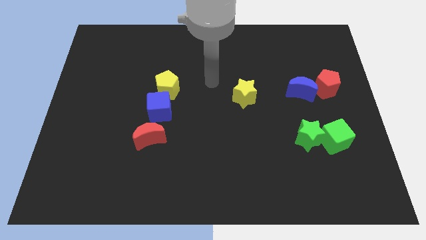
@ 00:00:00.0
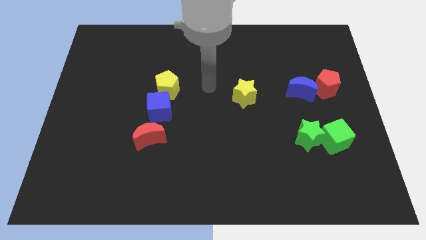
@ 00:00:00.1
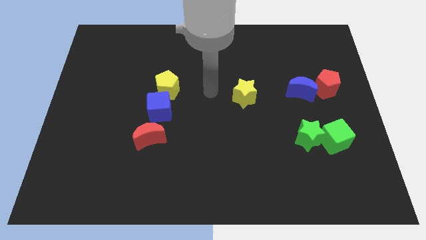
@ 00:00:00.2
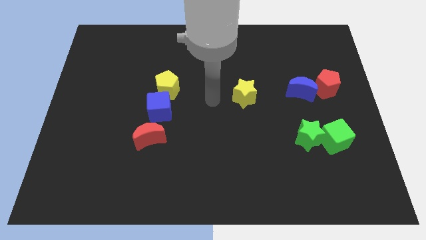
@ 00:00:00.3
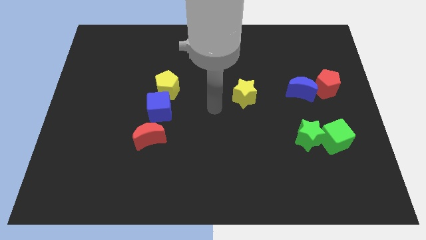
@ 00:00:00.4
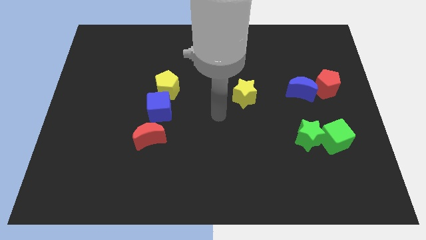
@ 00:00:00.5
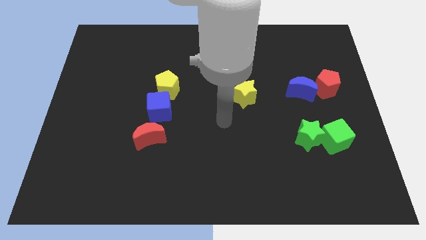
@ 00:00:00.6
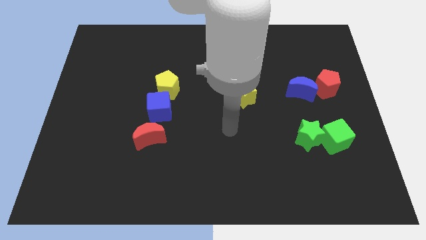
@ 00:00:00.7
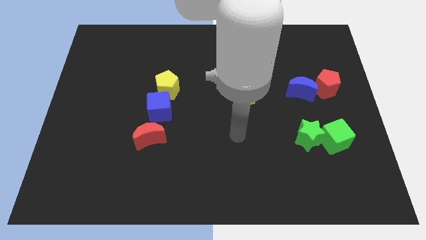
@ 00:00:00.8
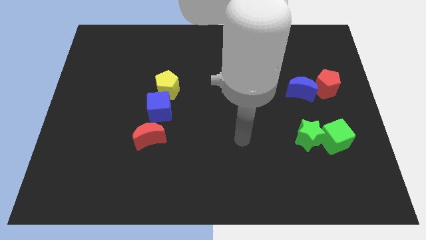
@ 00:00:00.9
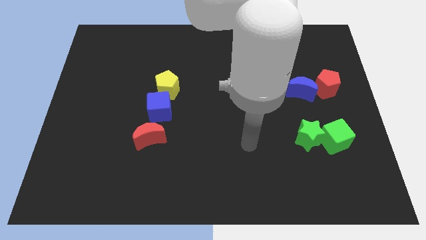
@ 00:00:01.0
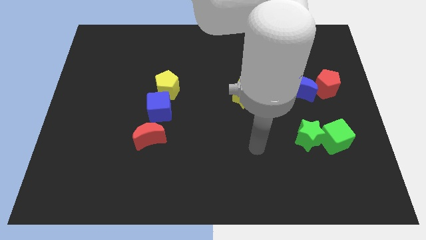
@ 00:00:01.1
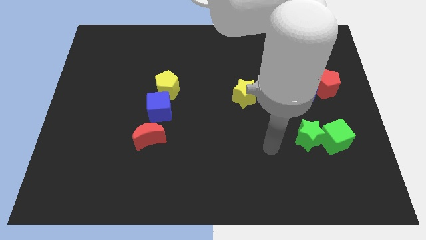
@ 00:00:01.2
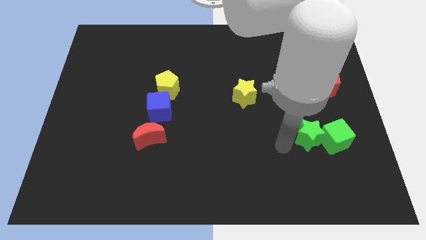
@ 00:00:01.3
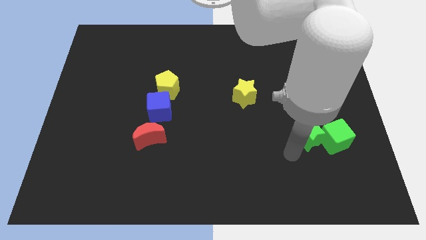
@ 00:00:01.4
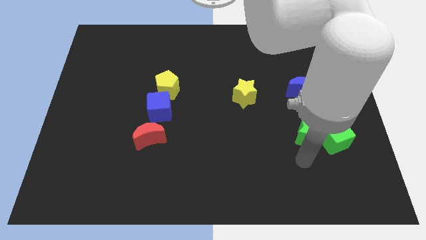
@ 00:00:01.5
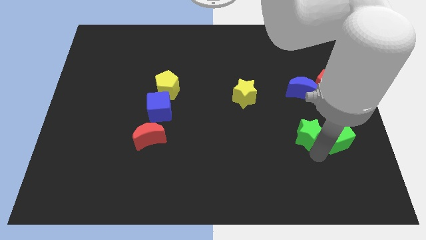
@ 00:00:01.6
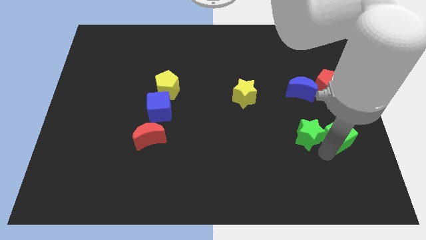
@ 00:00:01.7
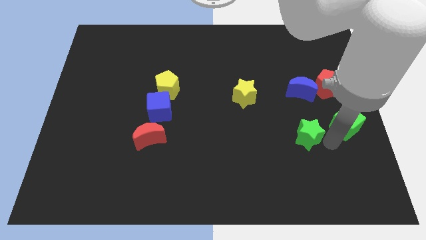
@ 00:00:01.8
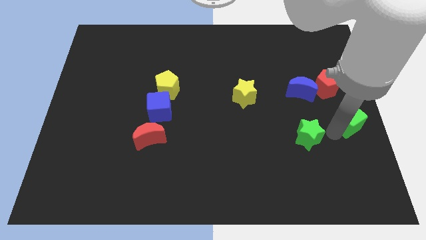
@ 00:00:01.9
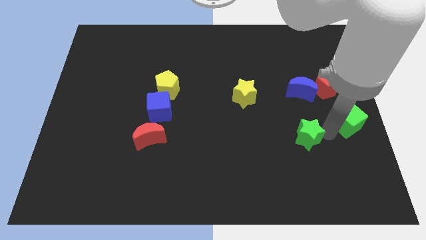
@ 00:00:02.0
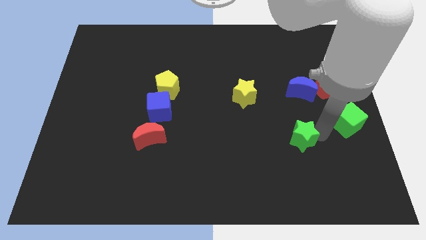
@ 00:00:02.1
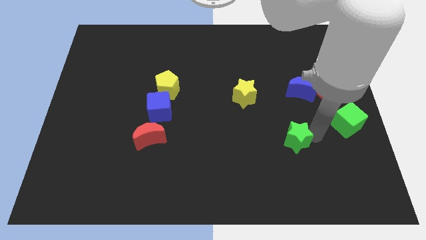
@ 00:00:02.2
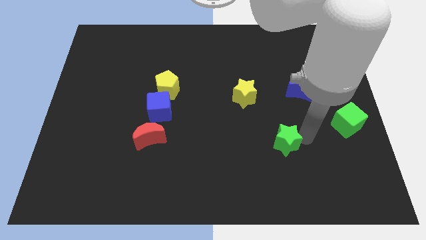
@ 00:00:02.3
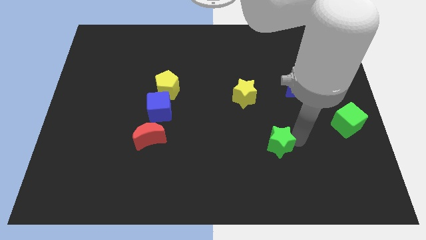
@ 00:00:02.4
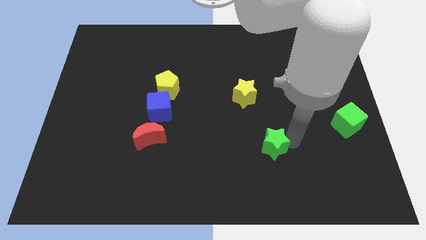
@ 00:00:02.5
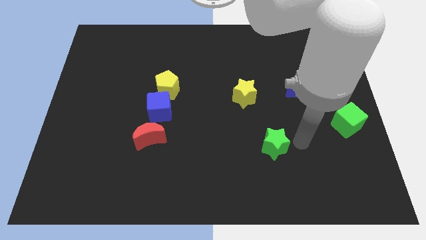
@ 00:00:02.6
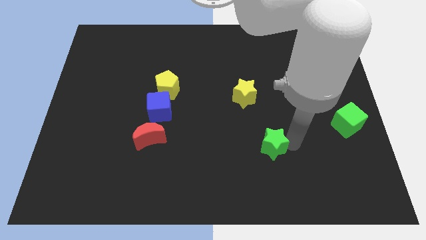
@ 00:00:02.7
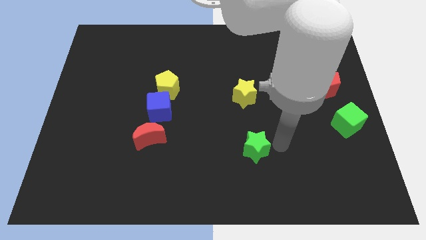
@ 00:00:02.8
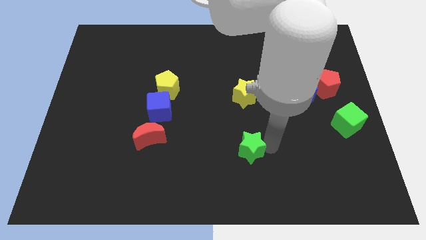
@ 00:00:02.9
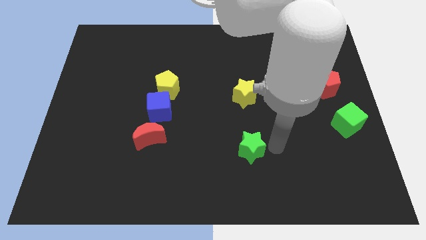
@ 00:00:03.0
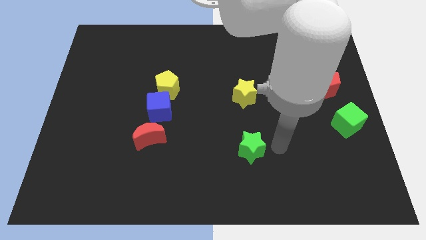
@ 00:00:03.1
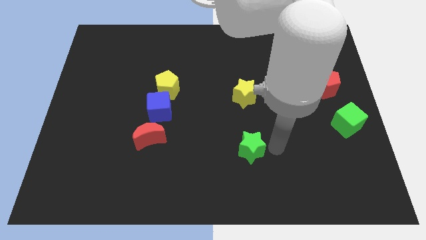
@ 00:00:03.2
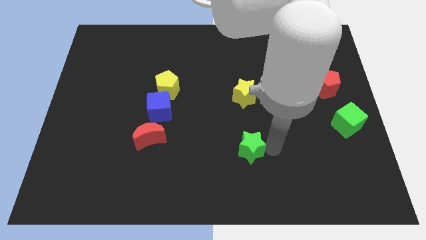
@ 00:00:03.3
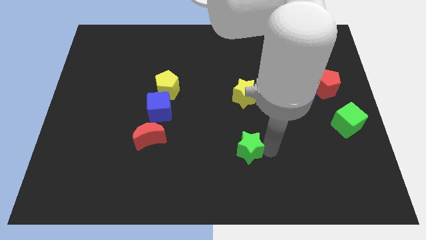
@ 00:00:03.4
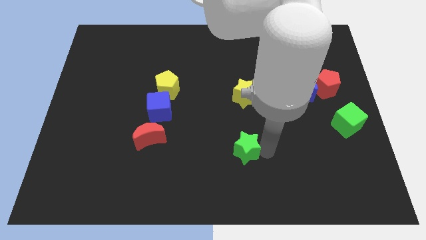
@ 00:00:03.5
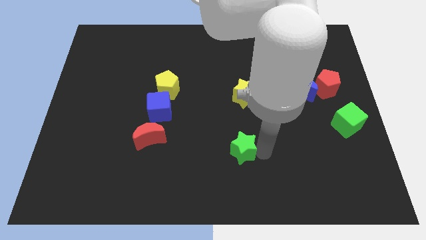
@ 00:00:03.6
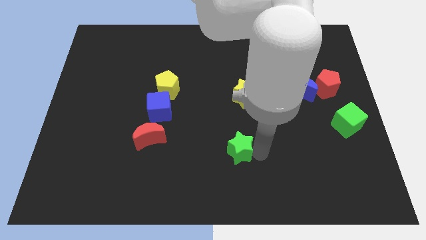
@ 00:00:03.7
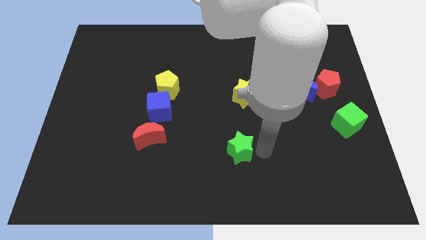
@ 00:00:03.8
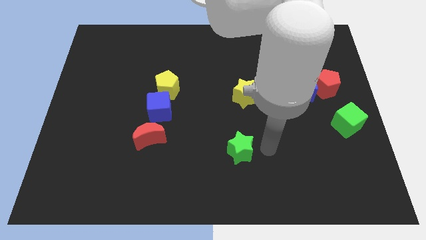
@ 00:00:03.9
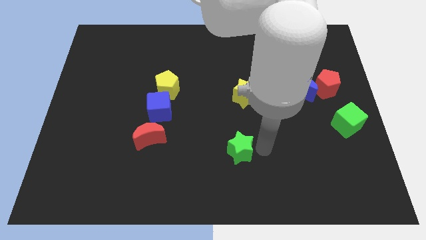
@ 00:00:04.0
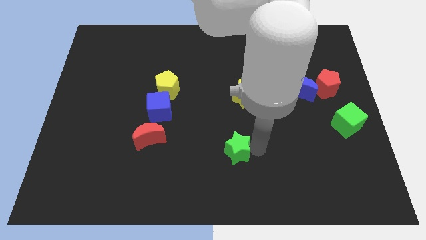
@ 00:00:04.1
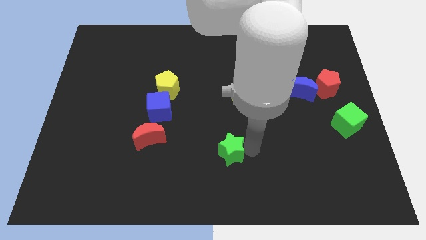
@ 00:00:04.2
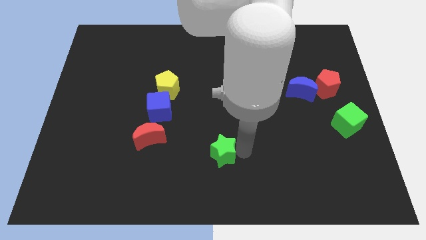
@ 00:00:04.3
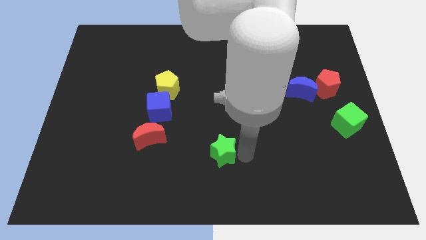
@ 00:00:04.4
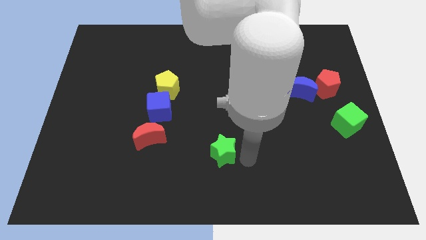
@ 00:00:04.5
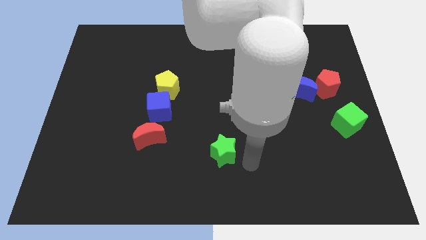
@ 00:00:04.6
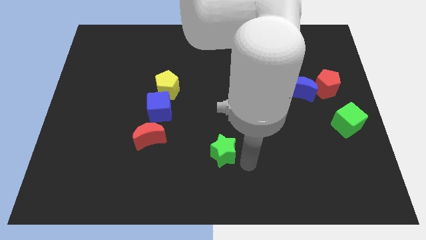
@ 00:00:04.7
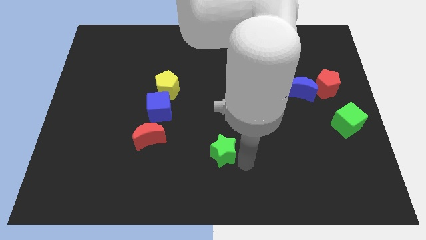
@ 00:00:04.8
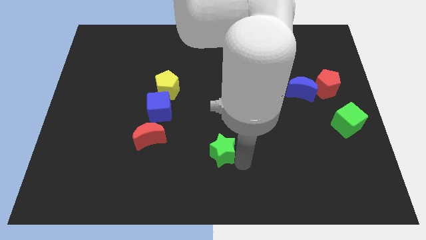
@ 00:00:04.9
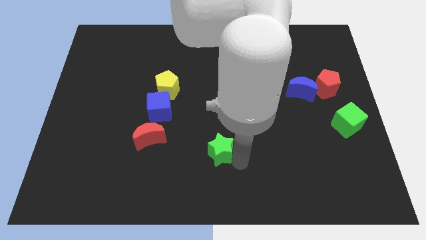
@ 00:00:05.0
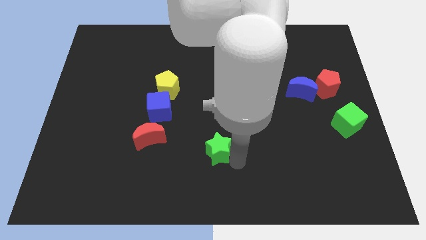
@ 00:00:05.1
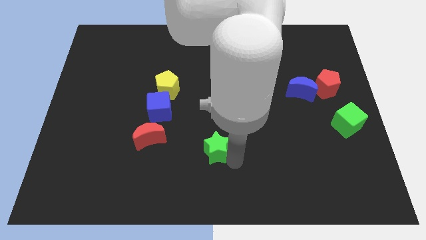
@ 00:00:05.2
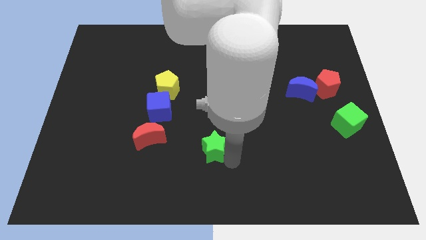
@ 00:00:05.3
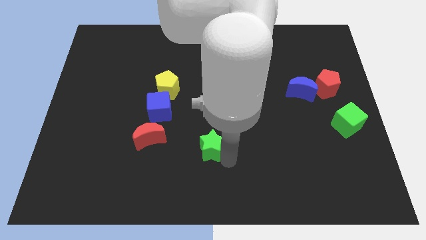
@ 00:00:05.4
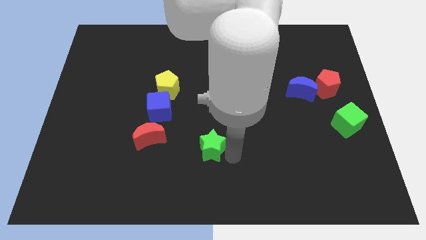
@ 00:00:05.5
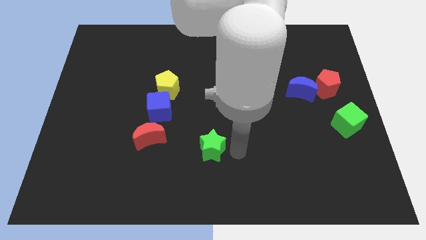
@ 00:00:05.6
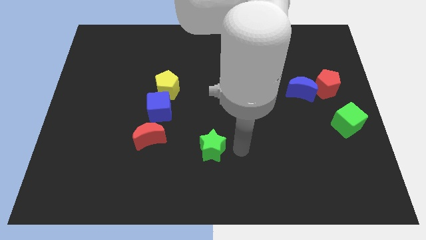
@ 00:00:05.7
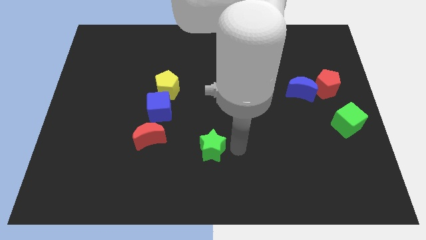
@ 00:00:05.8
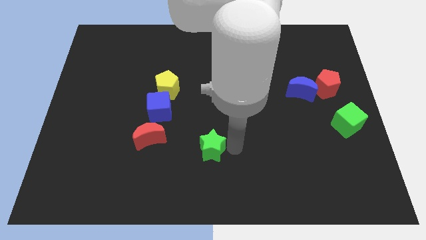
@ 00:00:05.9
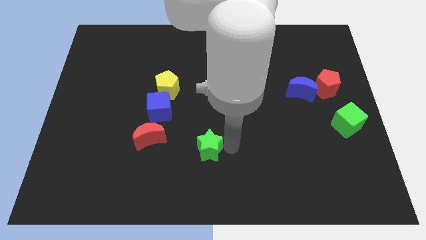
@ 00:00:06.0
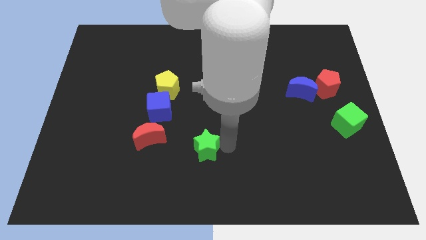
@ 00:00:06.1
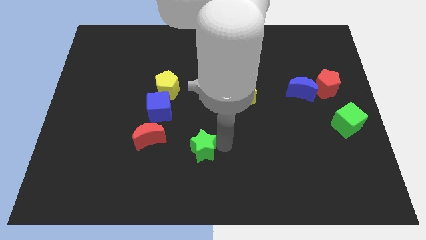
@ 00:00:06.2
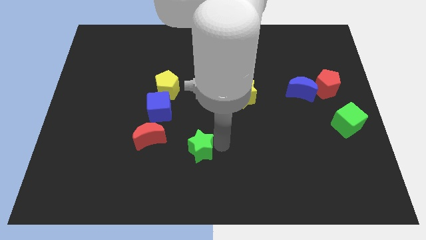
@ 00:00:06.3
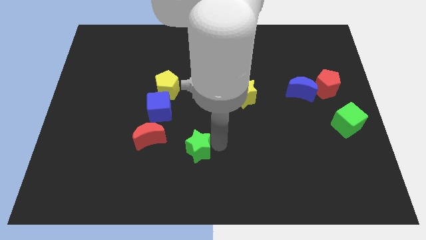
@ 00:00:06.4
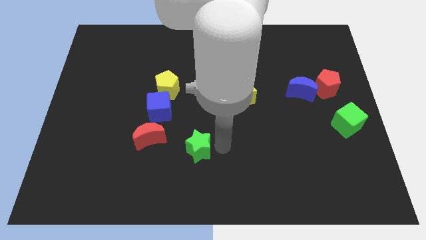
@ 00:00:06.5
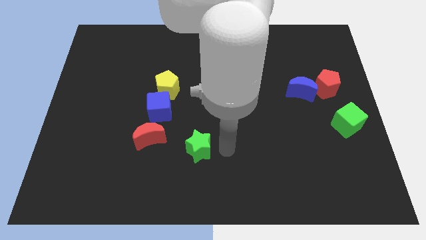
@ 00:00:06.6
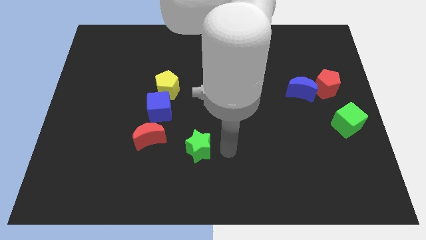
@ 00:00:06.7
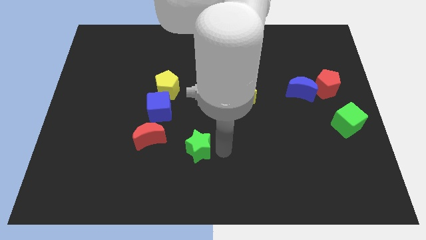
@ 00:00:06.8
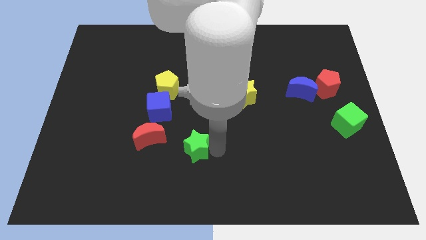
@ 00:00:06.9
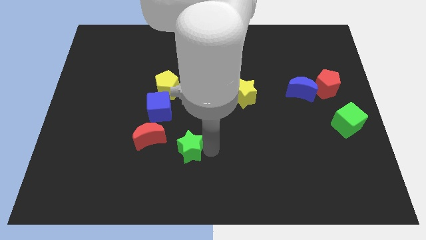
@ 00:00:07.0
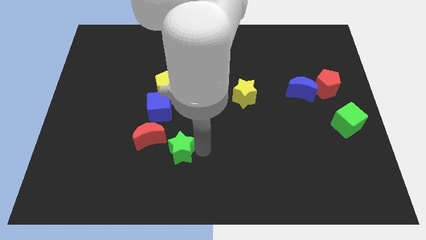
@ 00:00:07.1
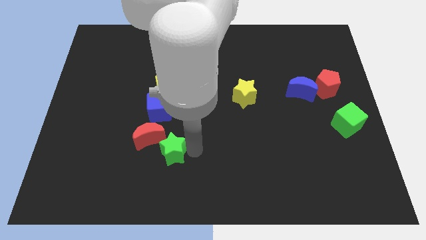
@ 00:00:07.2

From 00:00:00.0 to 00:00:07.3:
push the green star below the blue cube

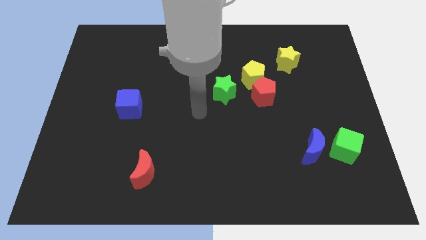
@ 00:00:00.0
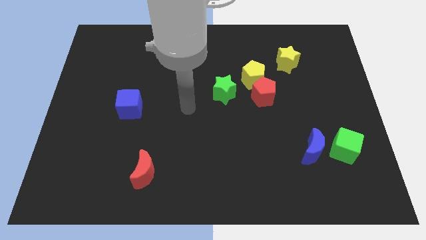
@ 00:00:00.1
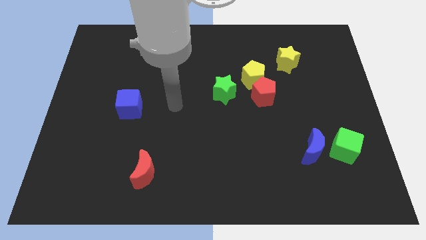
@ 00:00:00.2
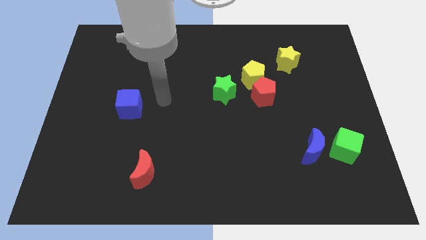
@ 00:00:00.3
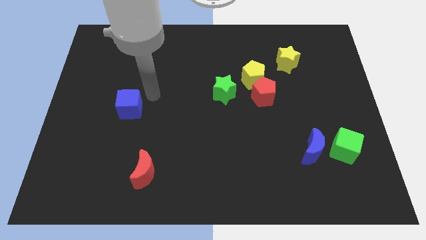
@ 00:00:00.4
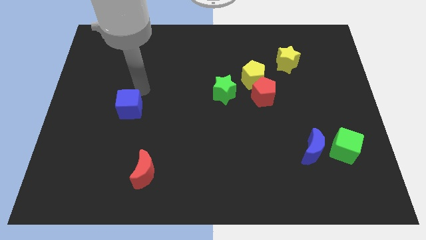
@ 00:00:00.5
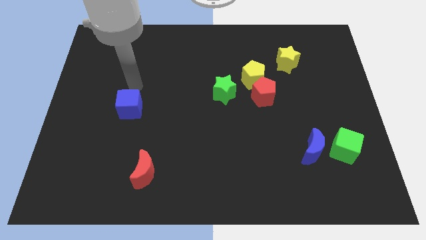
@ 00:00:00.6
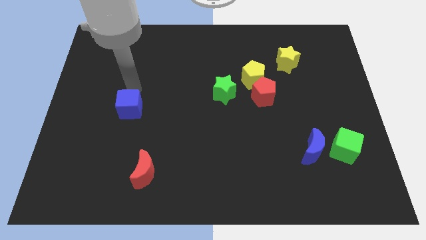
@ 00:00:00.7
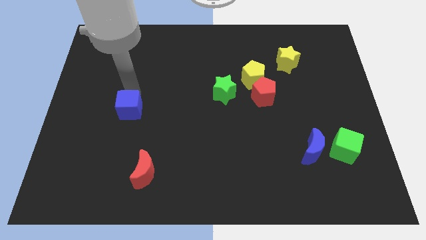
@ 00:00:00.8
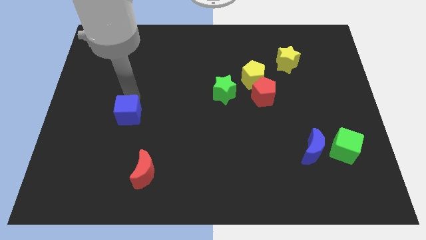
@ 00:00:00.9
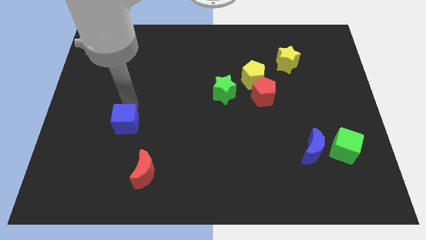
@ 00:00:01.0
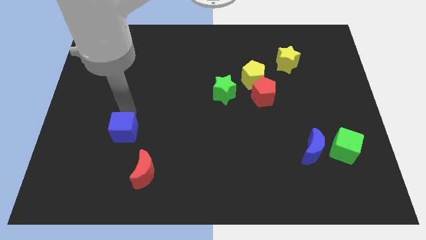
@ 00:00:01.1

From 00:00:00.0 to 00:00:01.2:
push the blue cube diagonally up and to the left of the red moon
